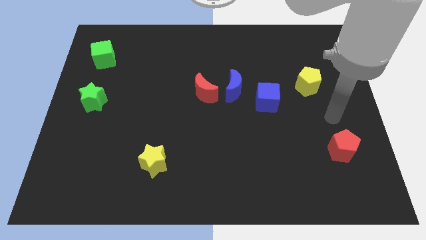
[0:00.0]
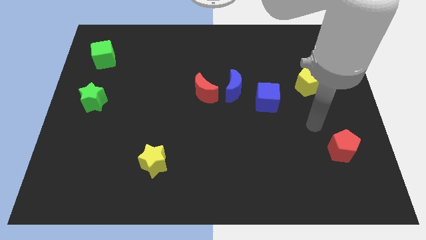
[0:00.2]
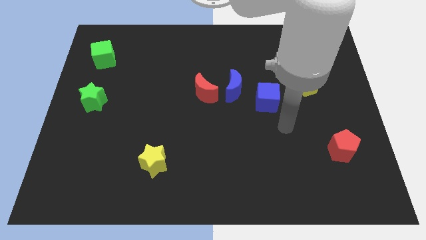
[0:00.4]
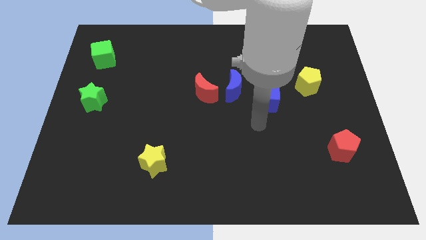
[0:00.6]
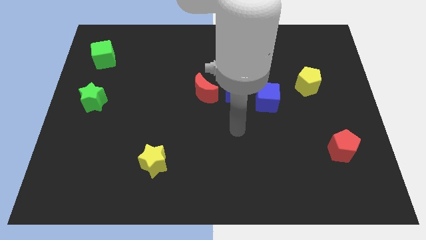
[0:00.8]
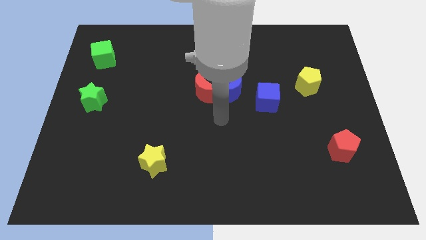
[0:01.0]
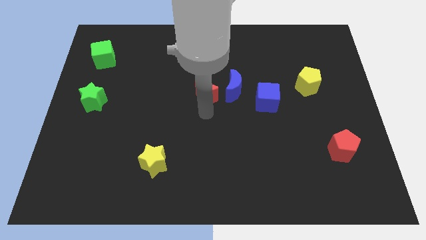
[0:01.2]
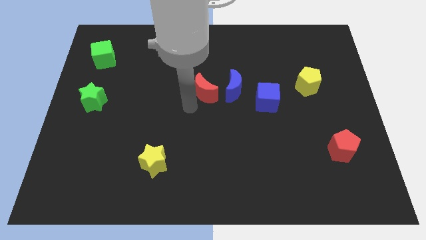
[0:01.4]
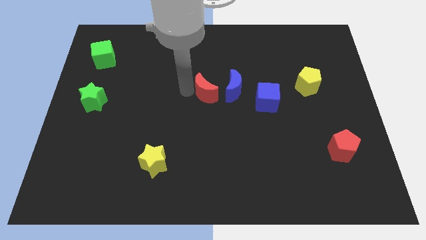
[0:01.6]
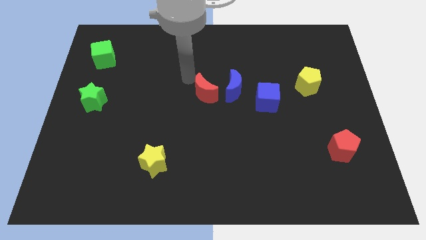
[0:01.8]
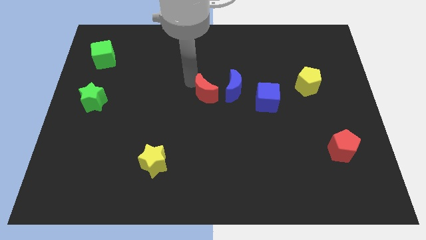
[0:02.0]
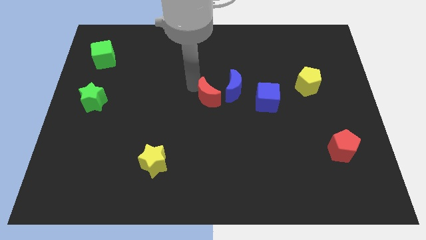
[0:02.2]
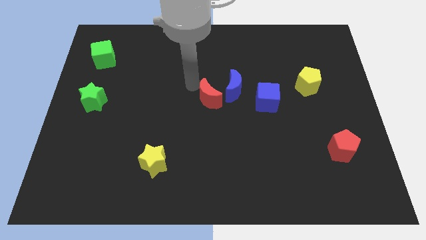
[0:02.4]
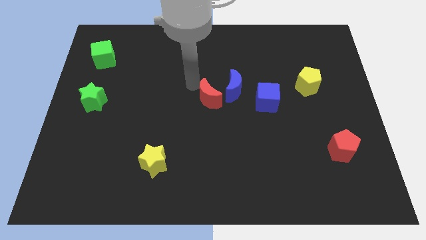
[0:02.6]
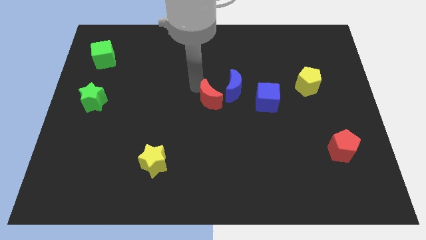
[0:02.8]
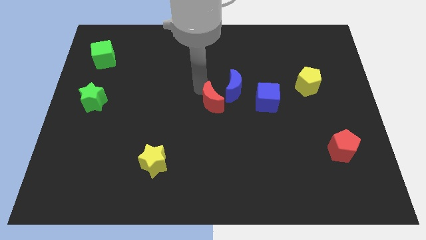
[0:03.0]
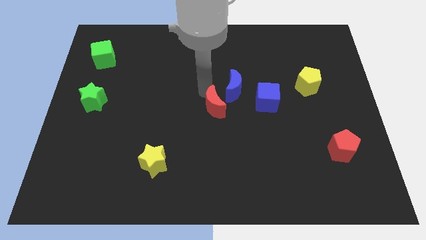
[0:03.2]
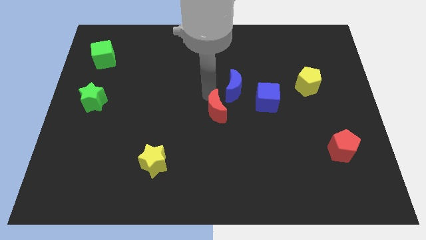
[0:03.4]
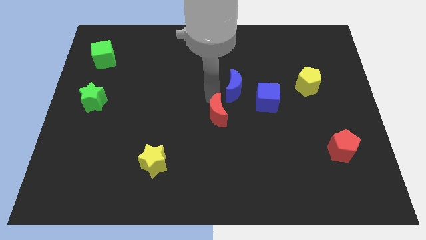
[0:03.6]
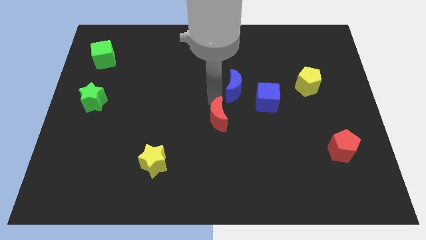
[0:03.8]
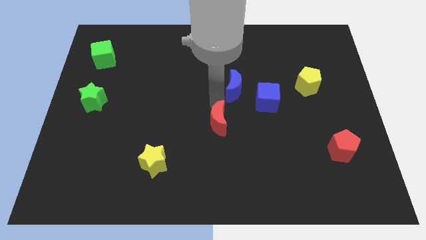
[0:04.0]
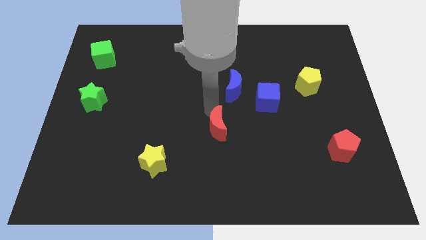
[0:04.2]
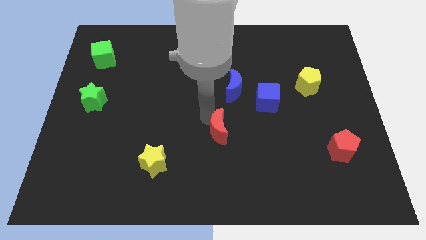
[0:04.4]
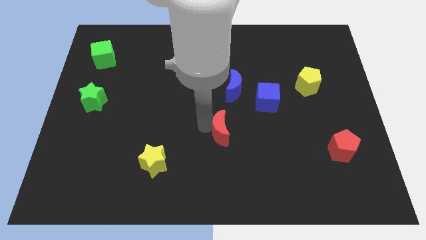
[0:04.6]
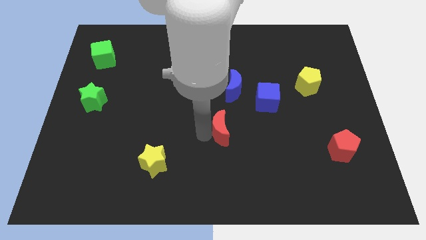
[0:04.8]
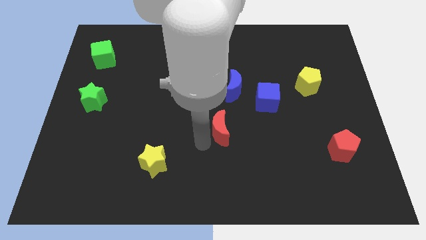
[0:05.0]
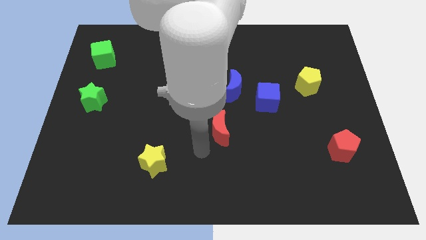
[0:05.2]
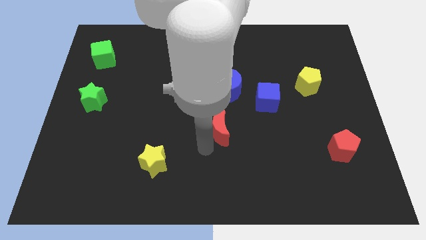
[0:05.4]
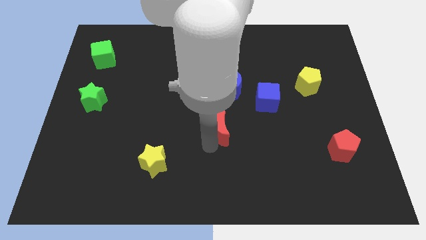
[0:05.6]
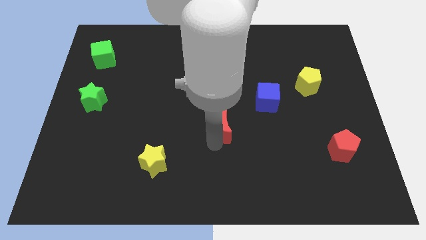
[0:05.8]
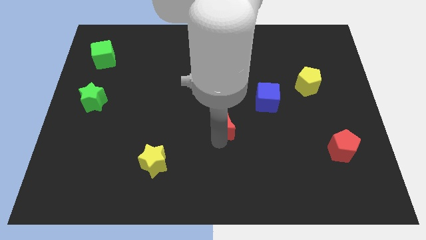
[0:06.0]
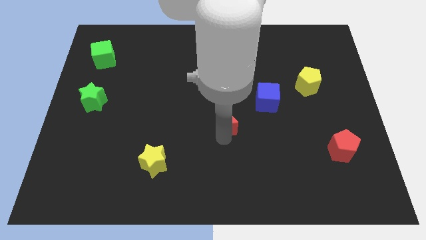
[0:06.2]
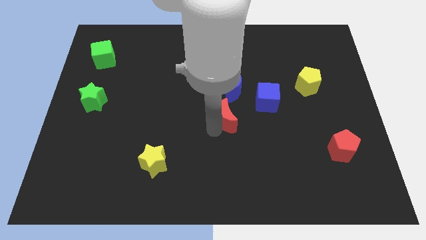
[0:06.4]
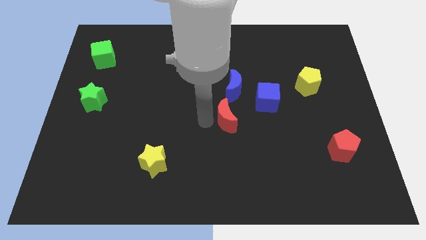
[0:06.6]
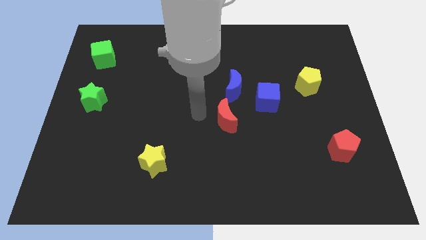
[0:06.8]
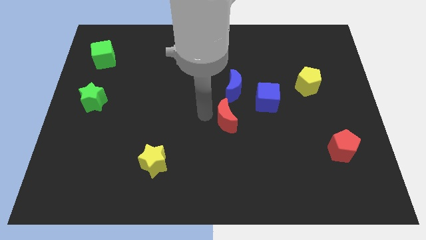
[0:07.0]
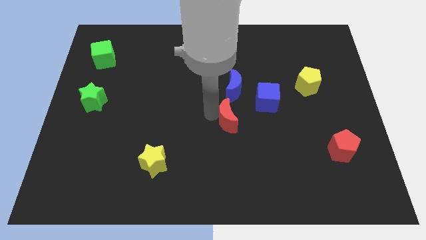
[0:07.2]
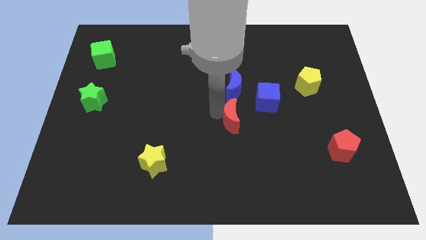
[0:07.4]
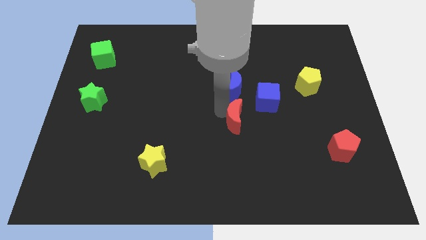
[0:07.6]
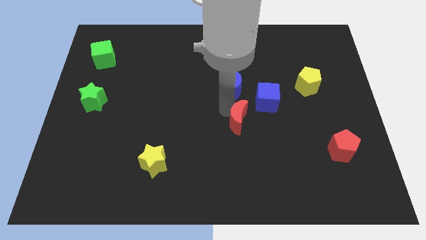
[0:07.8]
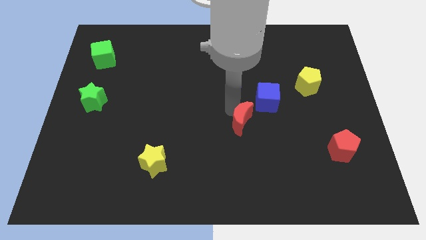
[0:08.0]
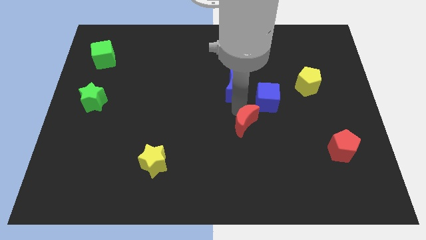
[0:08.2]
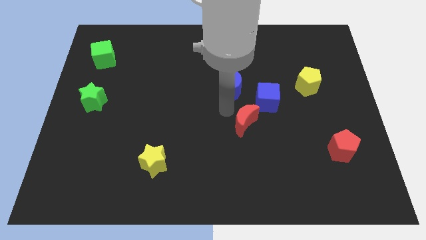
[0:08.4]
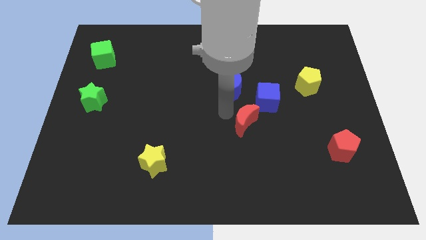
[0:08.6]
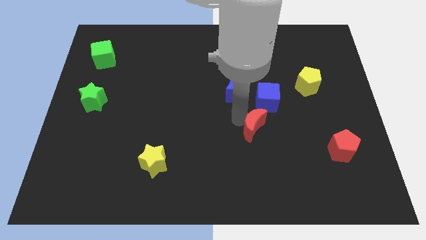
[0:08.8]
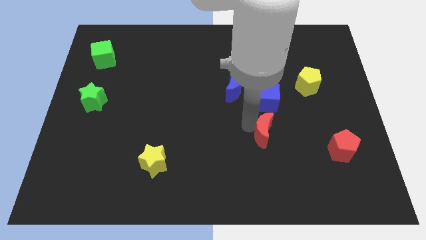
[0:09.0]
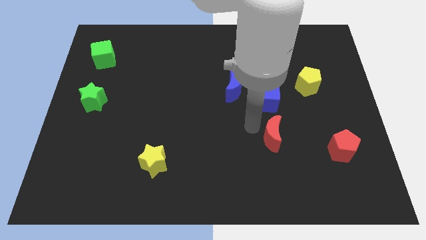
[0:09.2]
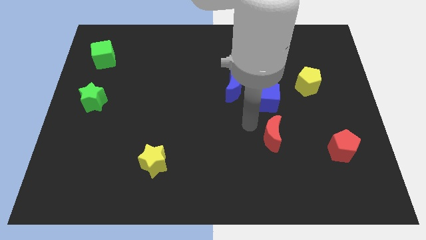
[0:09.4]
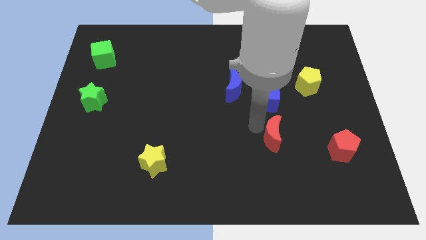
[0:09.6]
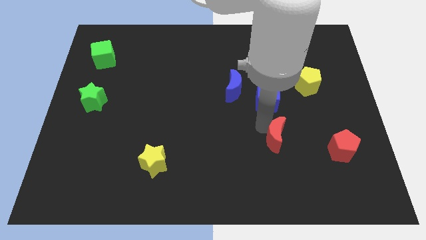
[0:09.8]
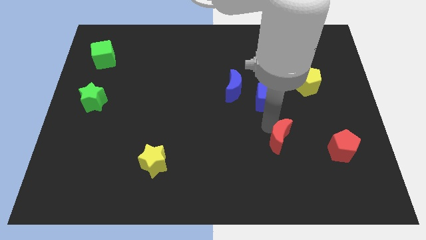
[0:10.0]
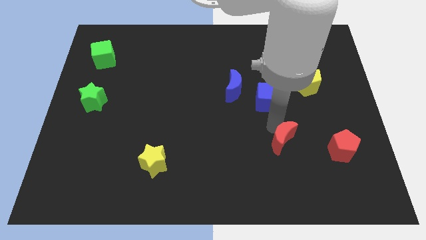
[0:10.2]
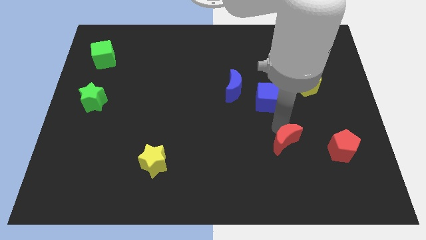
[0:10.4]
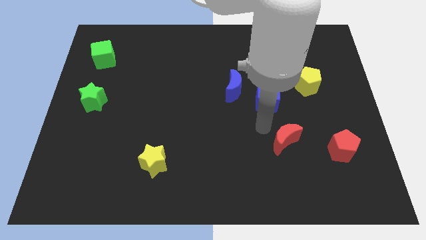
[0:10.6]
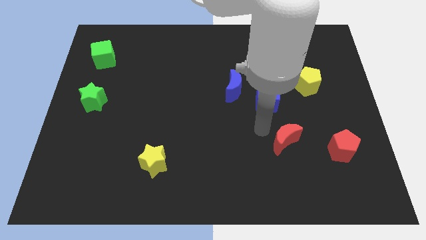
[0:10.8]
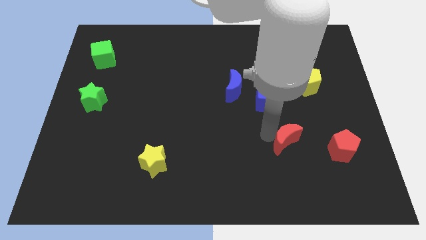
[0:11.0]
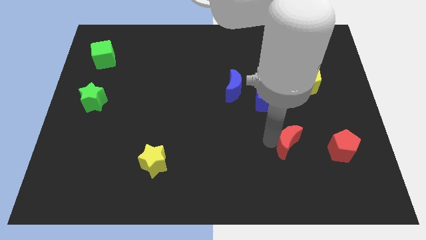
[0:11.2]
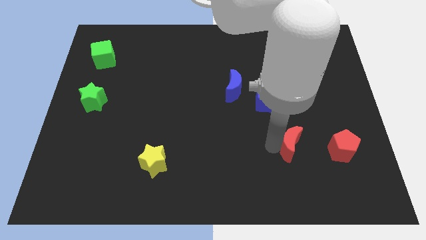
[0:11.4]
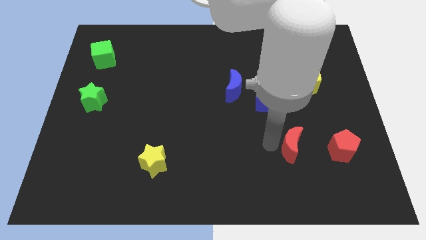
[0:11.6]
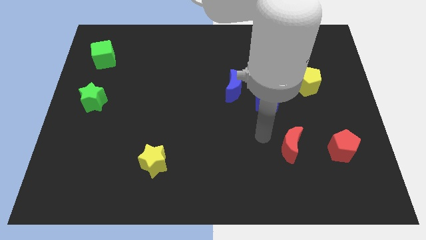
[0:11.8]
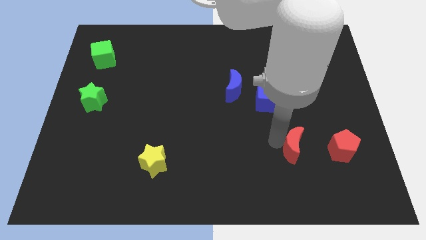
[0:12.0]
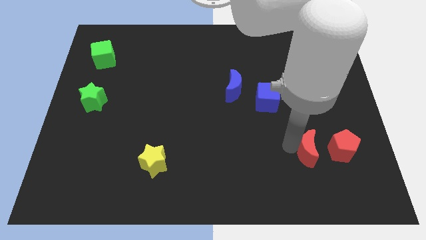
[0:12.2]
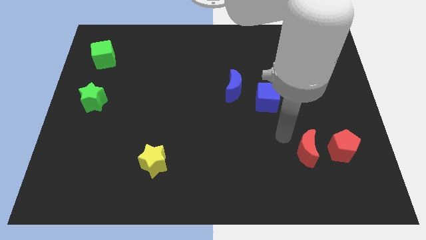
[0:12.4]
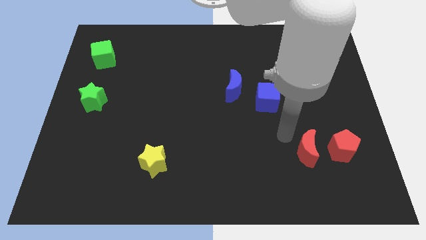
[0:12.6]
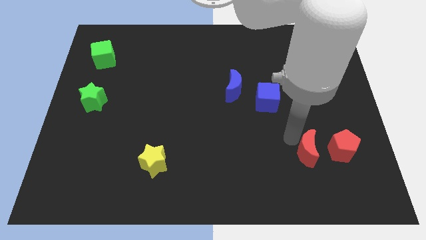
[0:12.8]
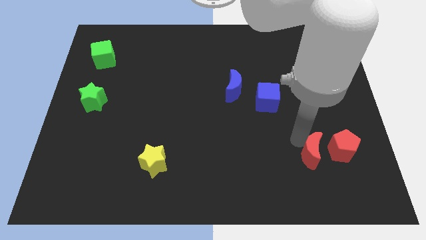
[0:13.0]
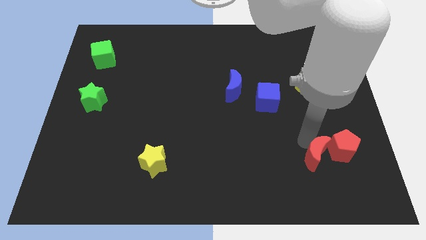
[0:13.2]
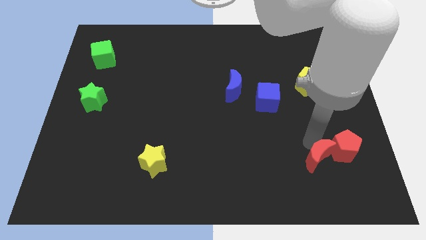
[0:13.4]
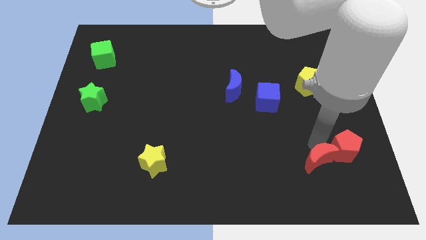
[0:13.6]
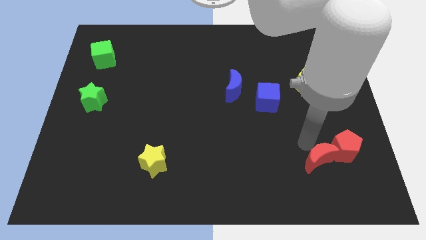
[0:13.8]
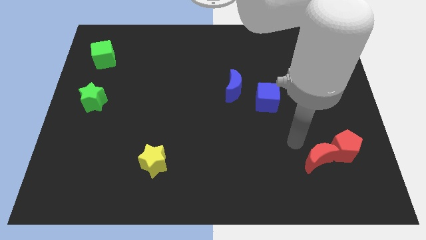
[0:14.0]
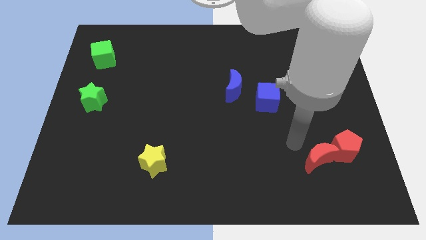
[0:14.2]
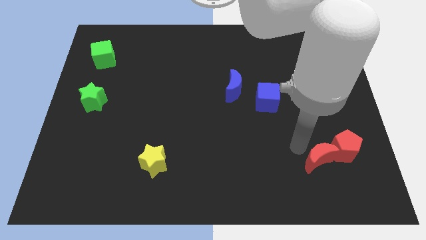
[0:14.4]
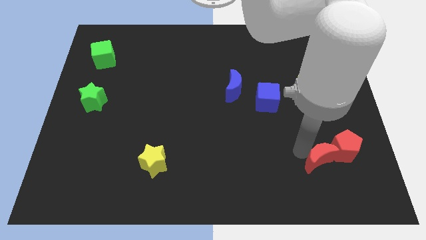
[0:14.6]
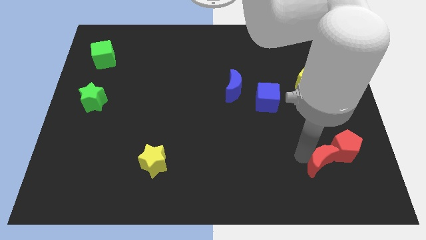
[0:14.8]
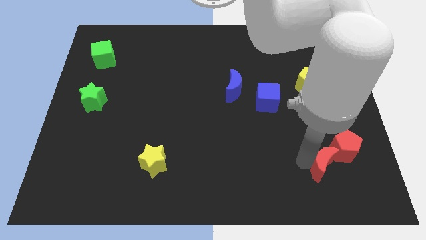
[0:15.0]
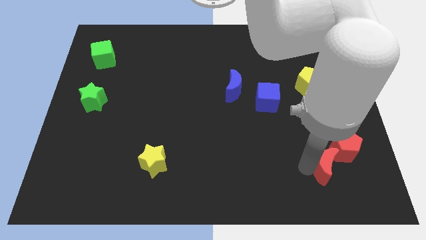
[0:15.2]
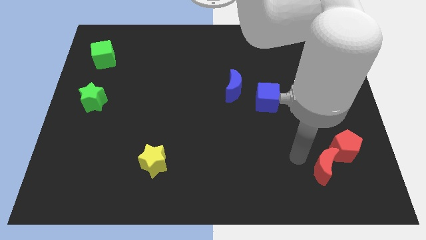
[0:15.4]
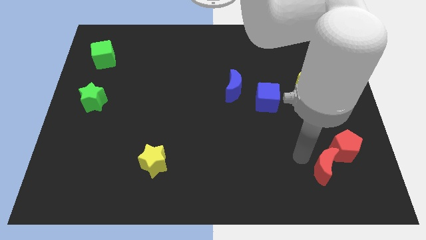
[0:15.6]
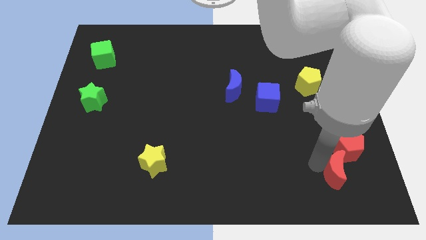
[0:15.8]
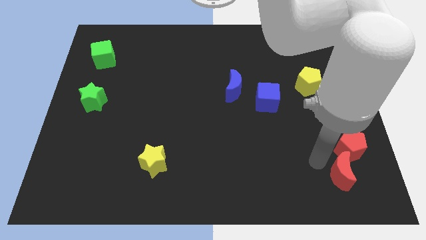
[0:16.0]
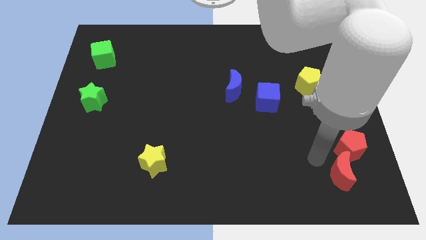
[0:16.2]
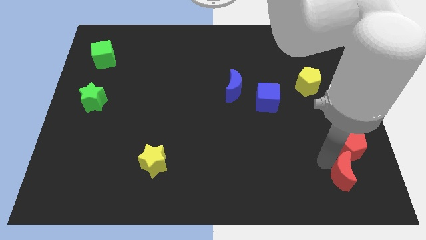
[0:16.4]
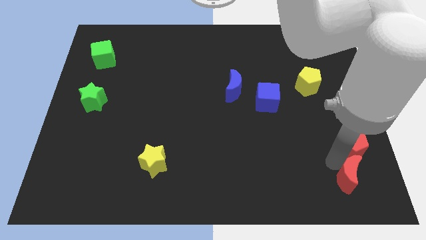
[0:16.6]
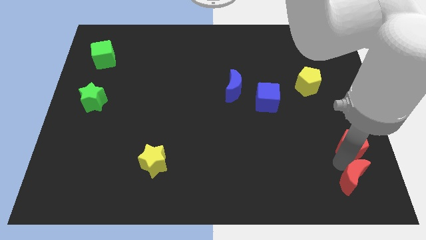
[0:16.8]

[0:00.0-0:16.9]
move the red moon to the bottom right of the board
